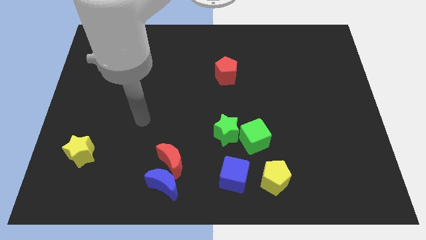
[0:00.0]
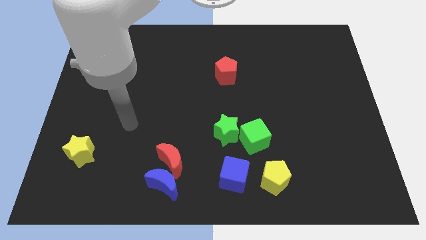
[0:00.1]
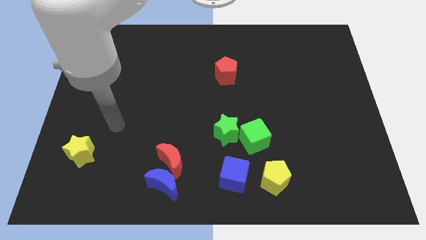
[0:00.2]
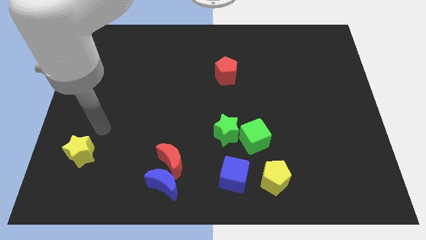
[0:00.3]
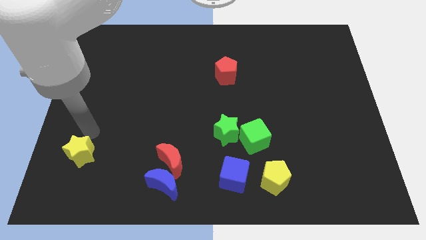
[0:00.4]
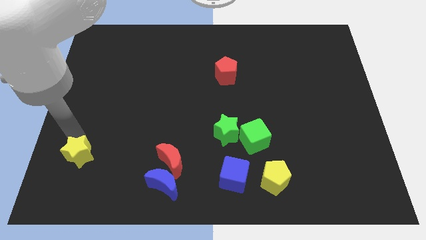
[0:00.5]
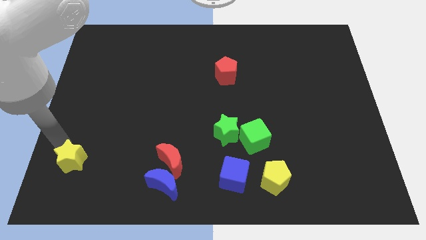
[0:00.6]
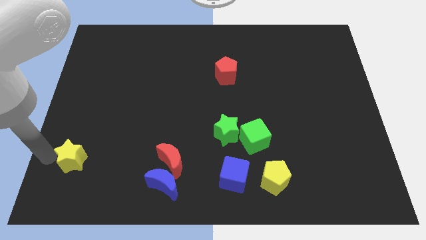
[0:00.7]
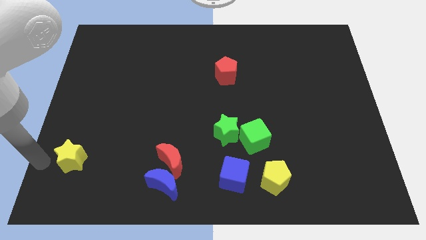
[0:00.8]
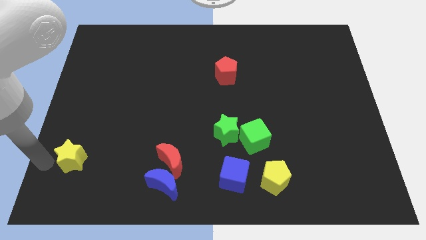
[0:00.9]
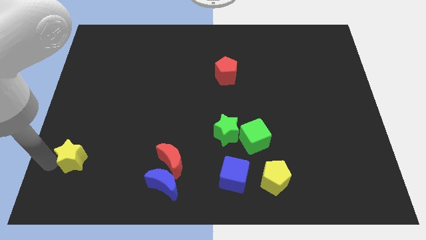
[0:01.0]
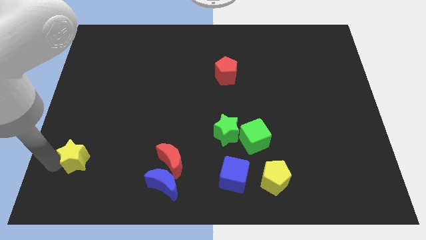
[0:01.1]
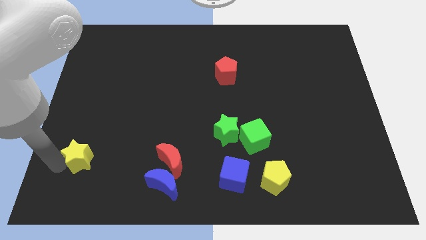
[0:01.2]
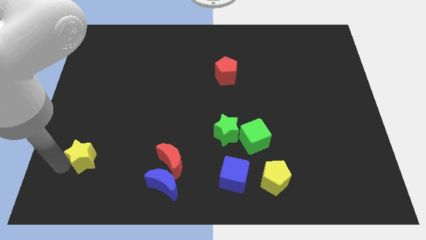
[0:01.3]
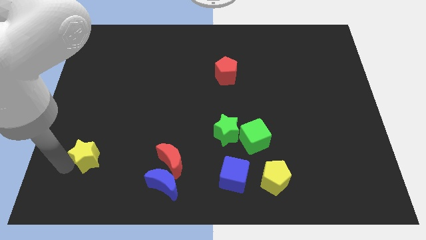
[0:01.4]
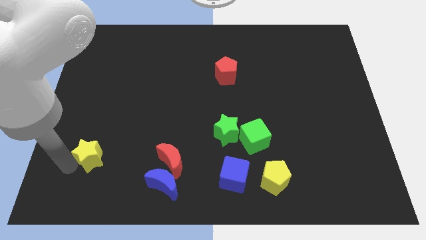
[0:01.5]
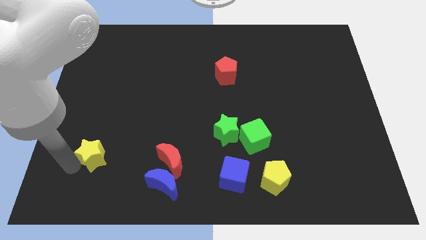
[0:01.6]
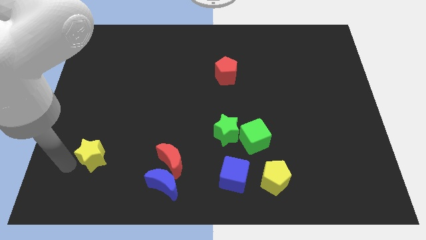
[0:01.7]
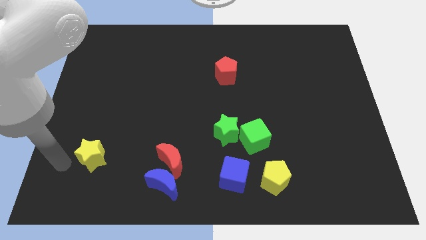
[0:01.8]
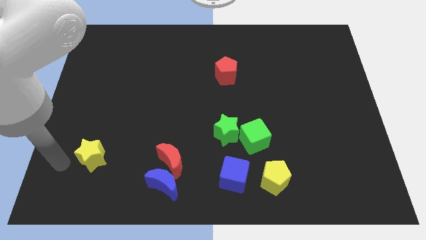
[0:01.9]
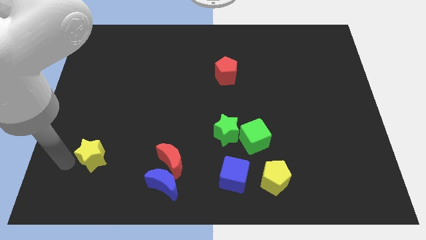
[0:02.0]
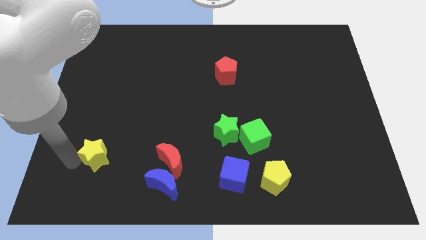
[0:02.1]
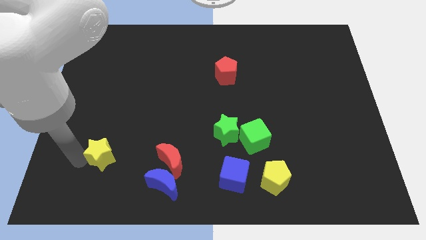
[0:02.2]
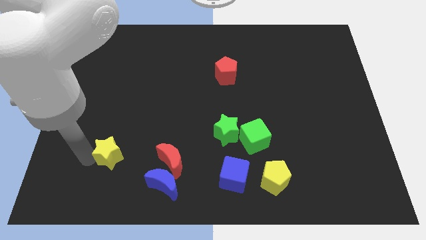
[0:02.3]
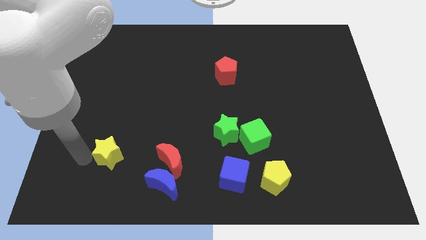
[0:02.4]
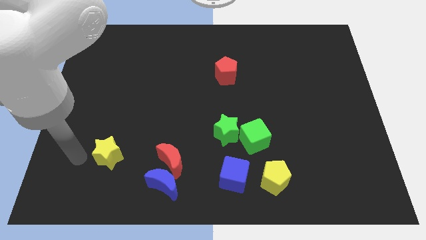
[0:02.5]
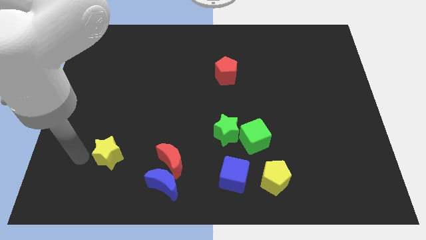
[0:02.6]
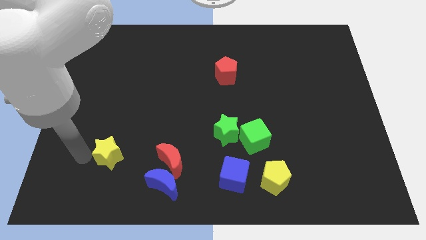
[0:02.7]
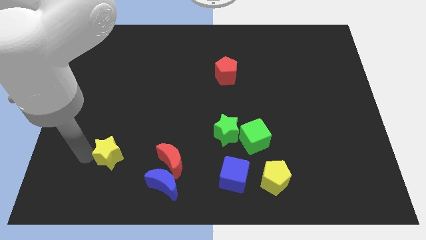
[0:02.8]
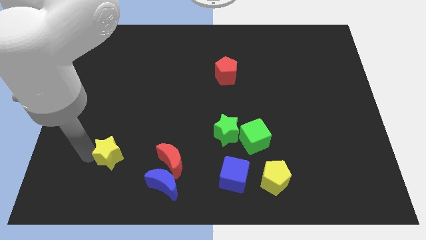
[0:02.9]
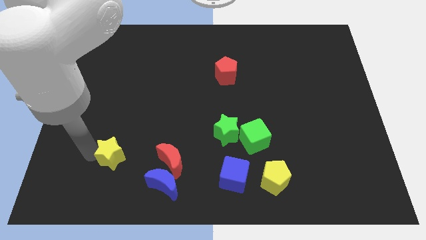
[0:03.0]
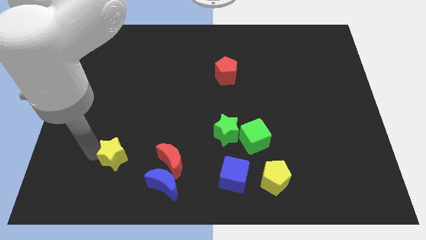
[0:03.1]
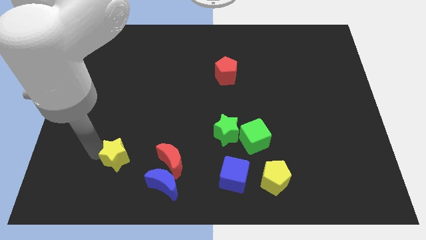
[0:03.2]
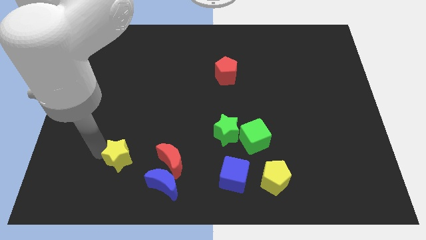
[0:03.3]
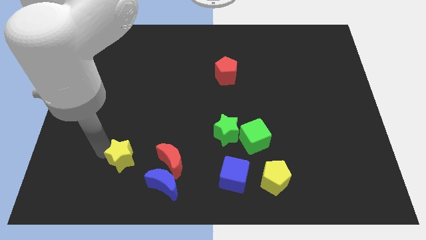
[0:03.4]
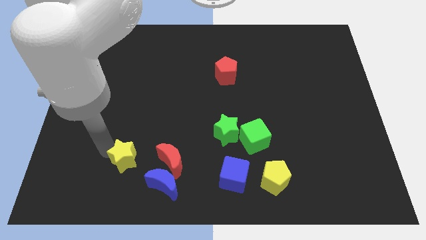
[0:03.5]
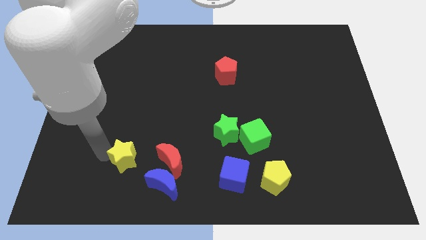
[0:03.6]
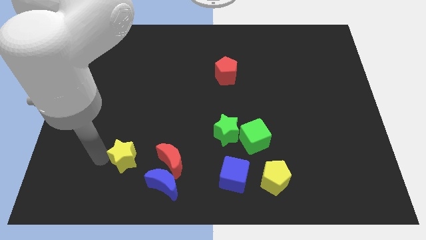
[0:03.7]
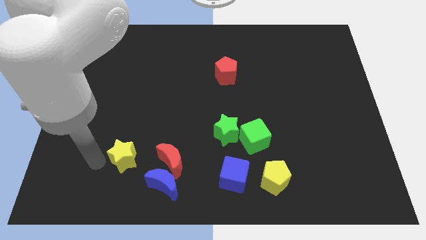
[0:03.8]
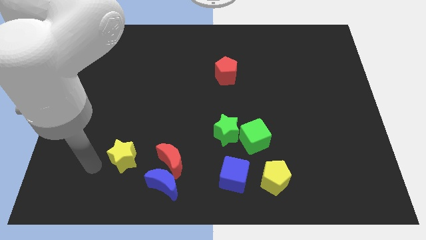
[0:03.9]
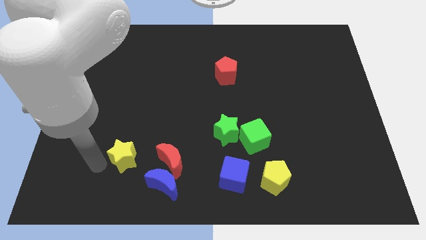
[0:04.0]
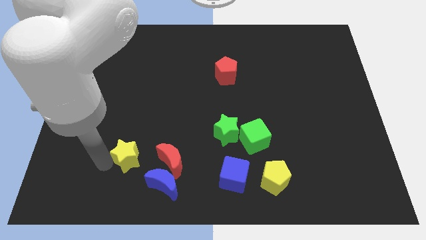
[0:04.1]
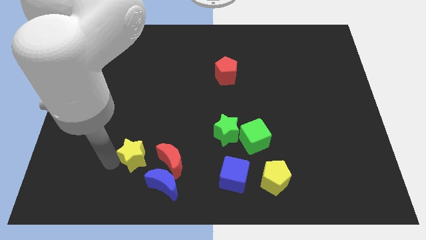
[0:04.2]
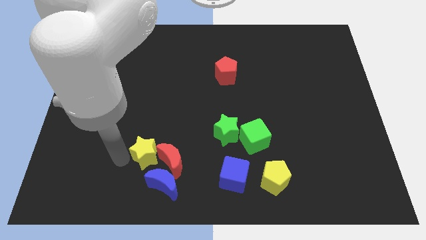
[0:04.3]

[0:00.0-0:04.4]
slide the yellow star next to the red moon

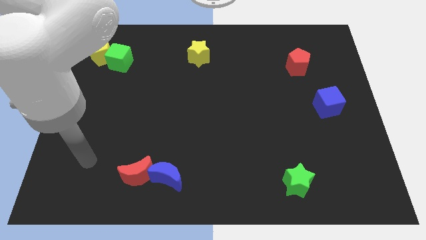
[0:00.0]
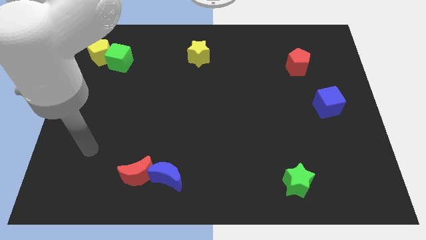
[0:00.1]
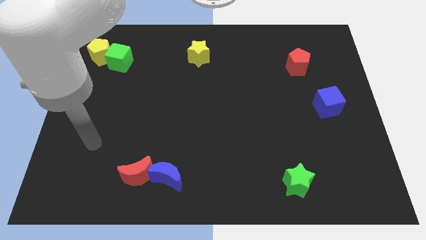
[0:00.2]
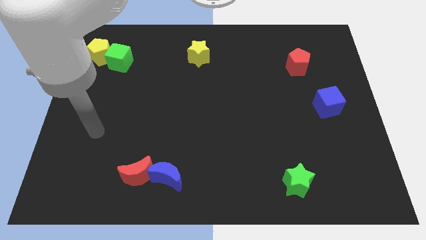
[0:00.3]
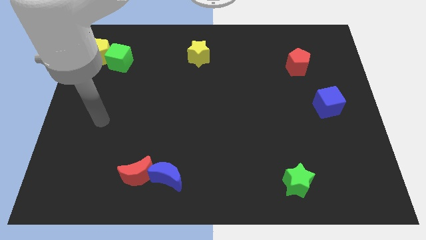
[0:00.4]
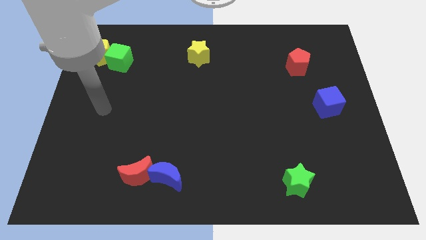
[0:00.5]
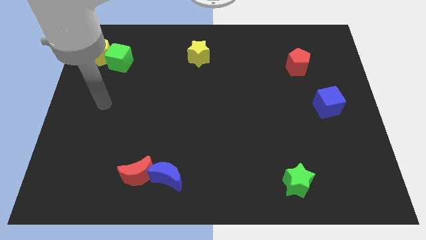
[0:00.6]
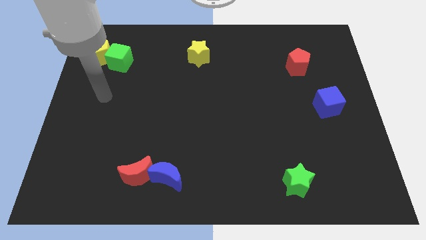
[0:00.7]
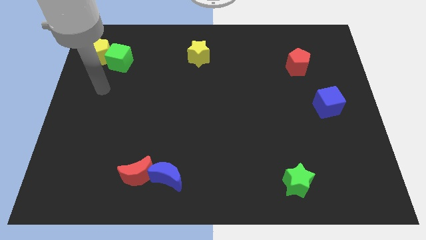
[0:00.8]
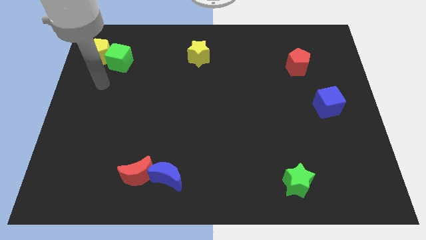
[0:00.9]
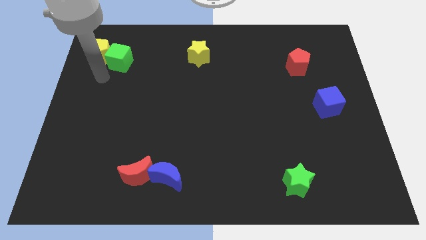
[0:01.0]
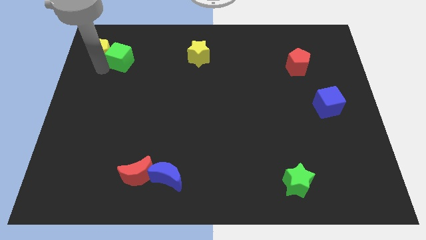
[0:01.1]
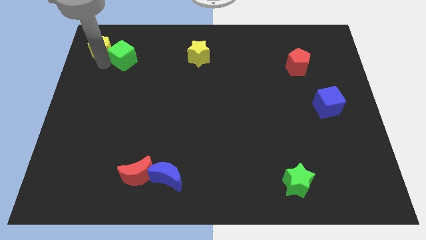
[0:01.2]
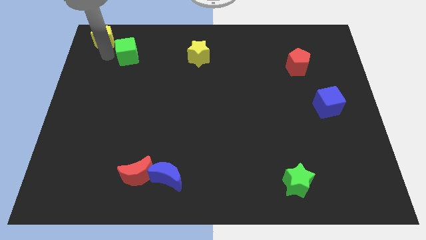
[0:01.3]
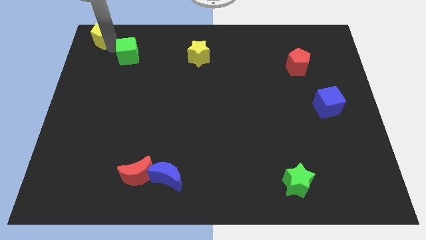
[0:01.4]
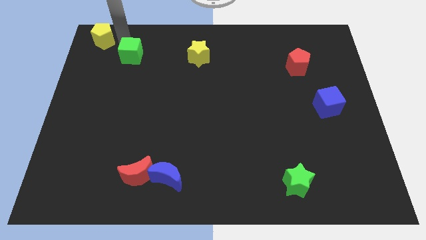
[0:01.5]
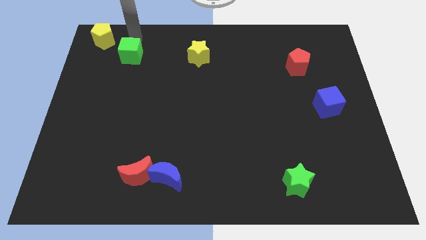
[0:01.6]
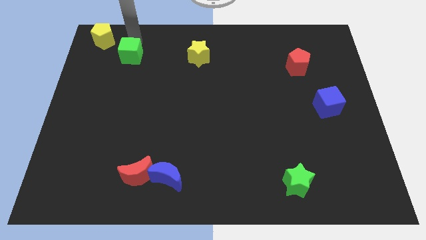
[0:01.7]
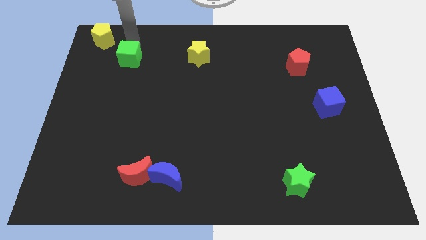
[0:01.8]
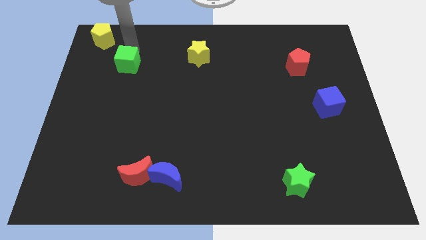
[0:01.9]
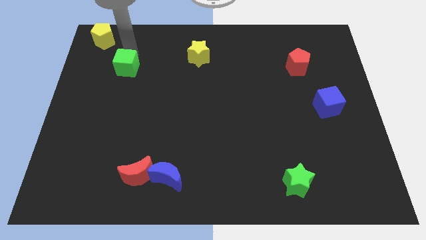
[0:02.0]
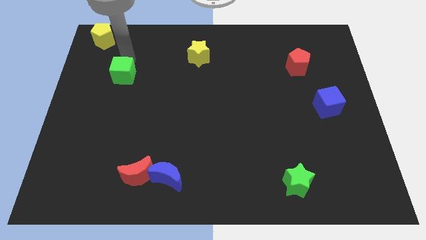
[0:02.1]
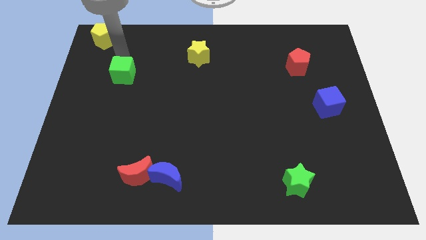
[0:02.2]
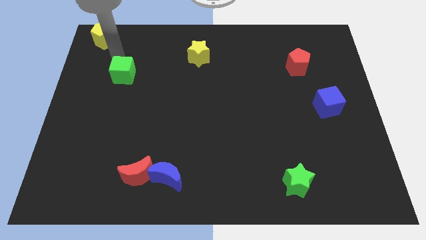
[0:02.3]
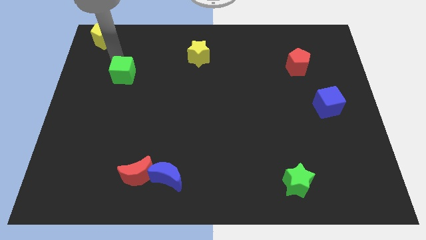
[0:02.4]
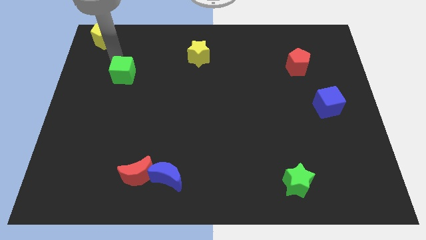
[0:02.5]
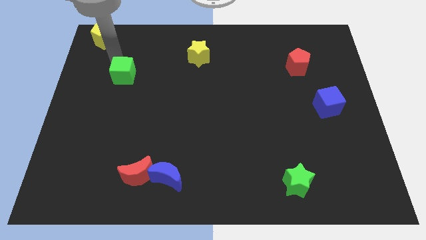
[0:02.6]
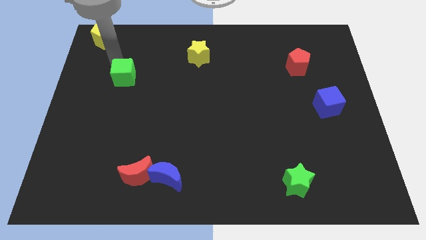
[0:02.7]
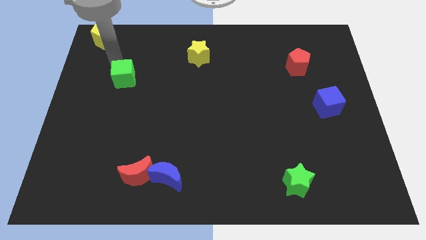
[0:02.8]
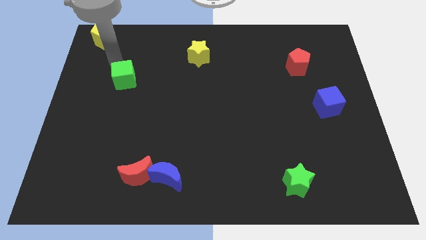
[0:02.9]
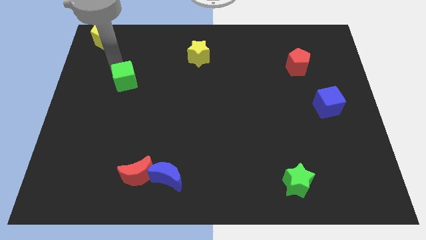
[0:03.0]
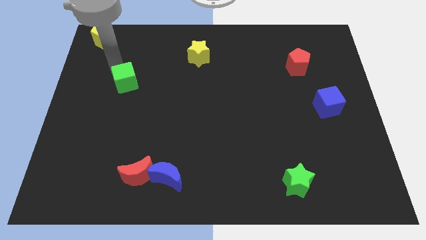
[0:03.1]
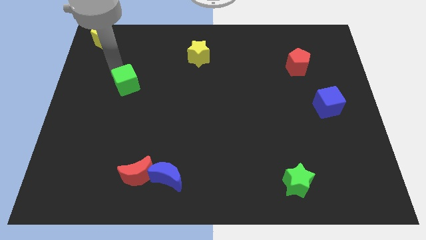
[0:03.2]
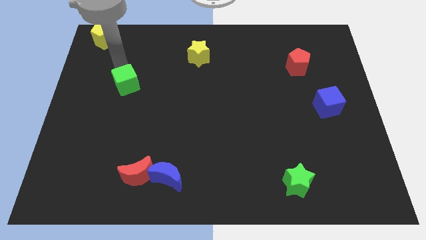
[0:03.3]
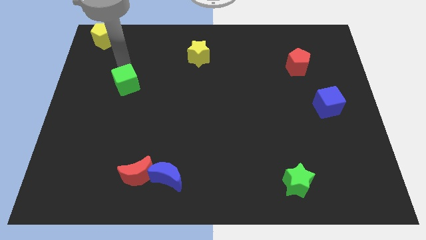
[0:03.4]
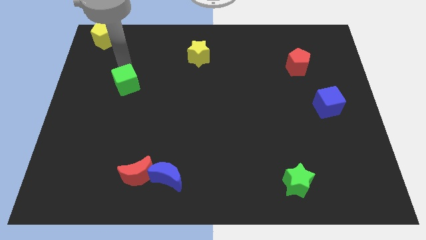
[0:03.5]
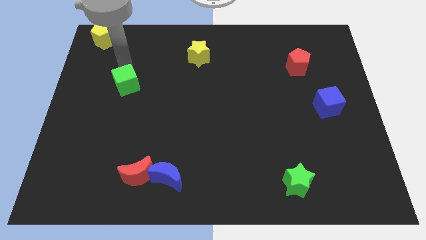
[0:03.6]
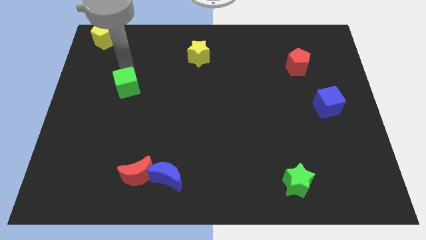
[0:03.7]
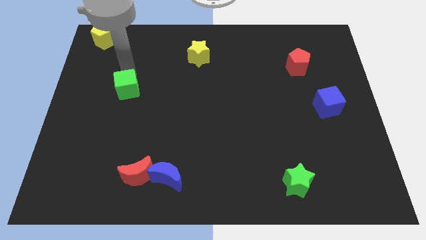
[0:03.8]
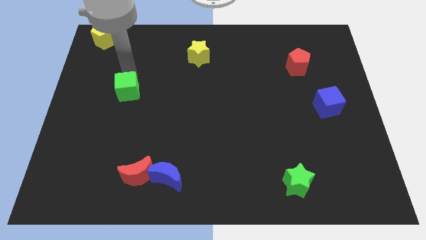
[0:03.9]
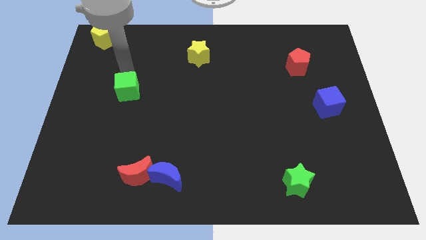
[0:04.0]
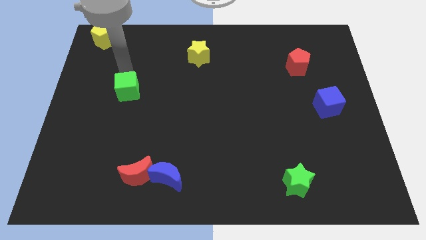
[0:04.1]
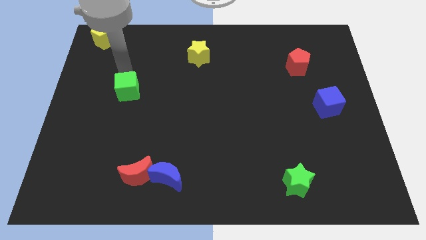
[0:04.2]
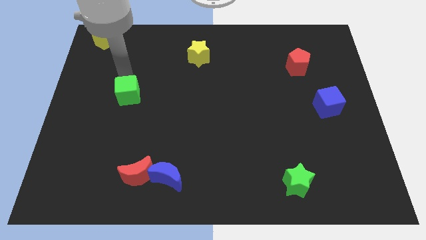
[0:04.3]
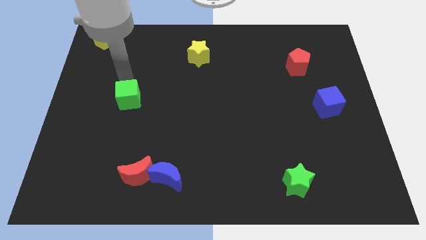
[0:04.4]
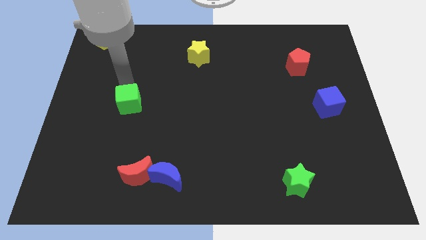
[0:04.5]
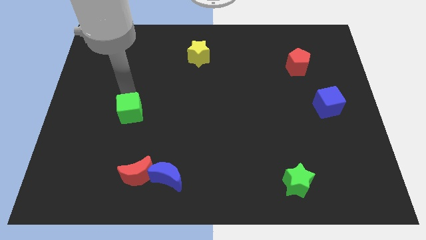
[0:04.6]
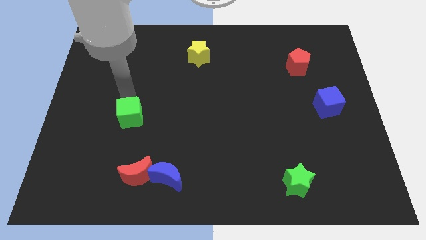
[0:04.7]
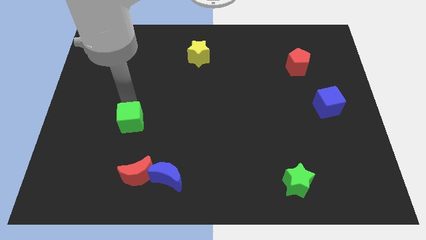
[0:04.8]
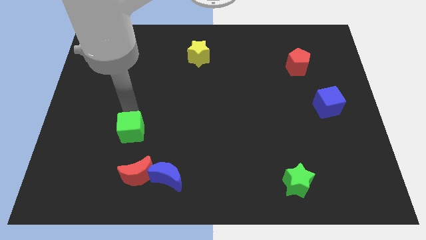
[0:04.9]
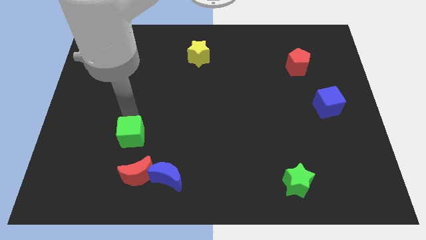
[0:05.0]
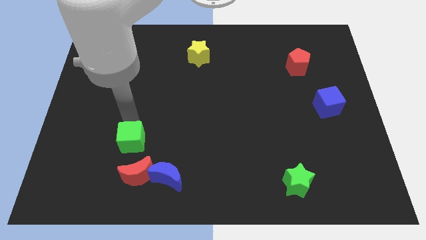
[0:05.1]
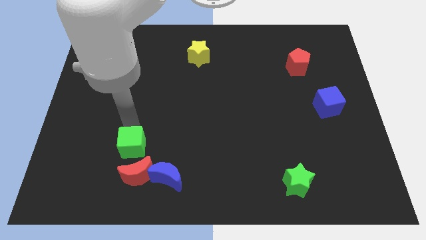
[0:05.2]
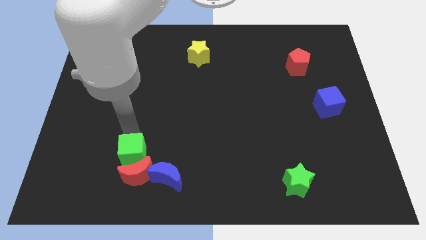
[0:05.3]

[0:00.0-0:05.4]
slide the green cube to the red moon
